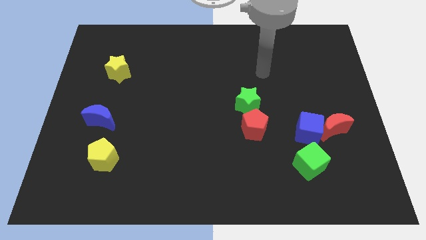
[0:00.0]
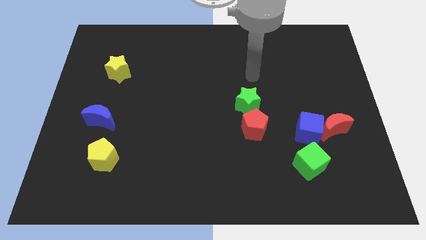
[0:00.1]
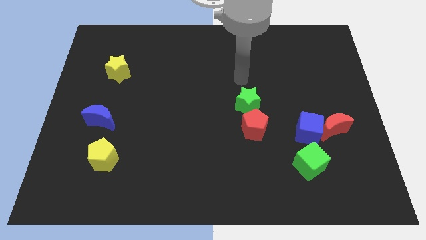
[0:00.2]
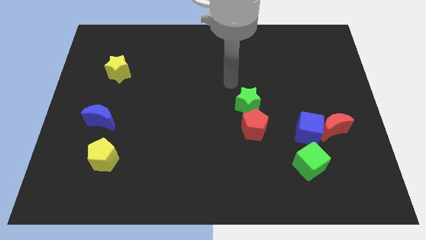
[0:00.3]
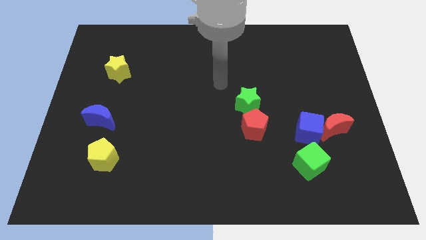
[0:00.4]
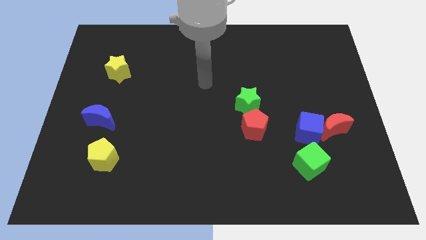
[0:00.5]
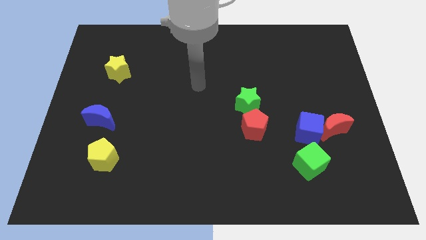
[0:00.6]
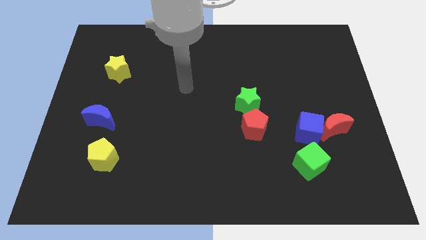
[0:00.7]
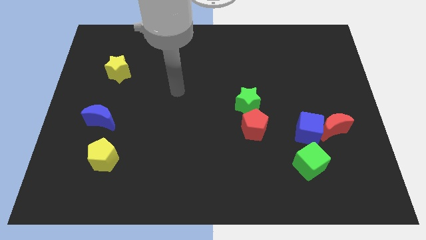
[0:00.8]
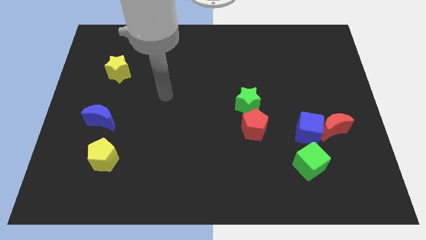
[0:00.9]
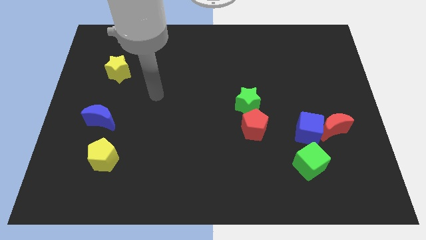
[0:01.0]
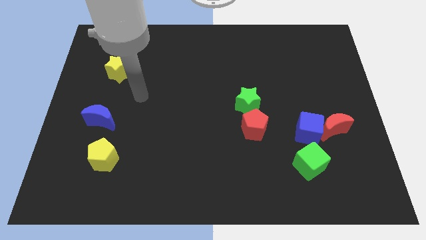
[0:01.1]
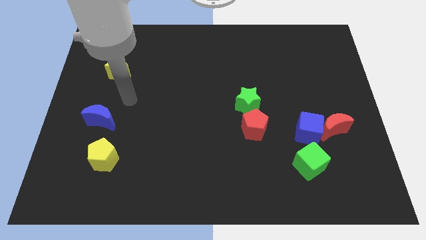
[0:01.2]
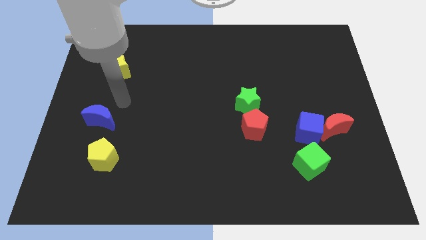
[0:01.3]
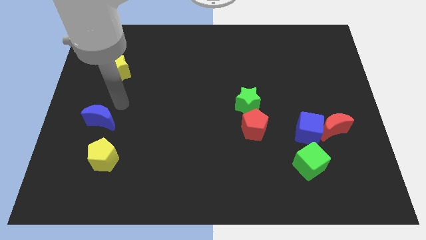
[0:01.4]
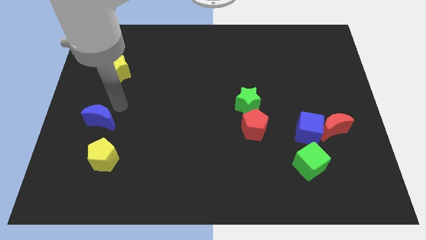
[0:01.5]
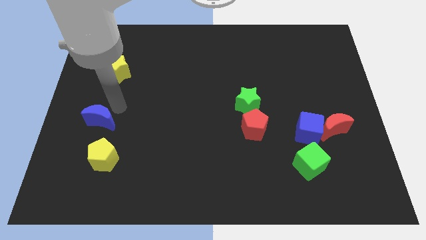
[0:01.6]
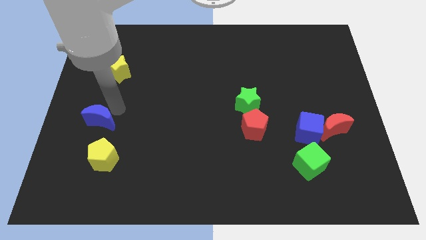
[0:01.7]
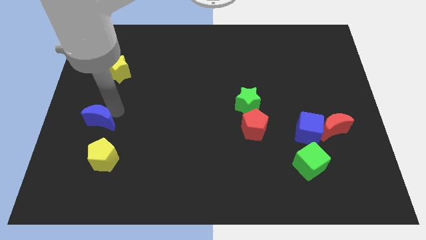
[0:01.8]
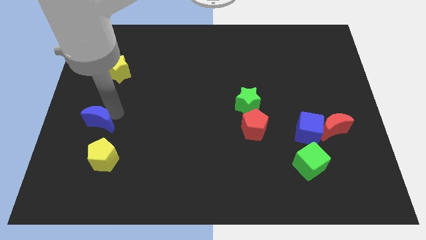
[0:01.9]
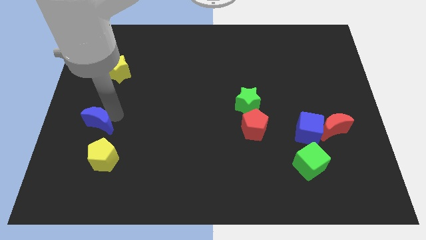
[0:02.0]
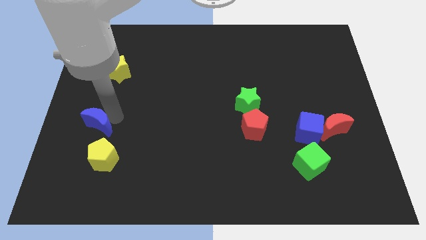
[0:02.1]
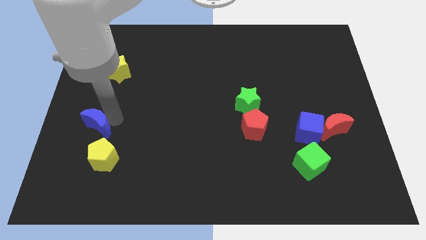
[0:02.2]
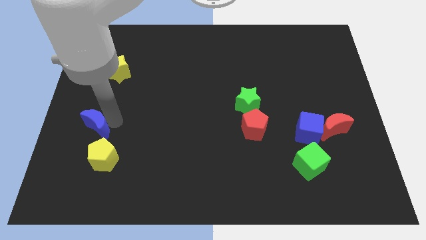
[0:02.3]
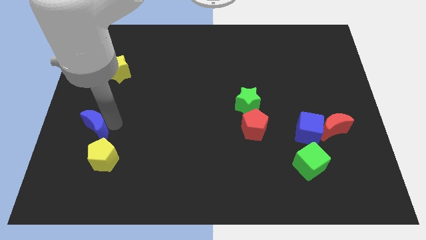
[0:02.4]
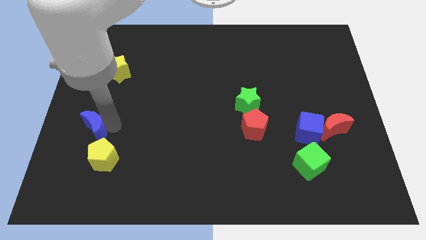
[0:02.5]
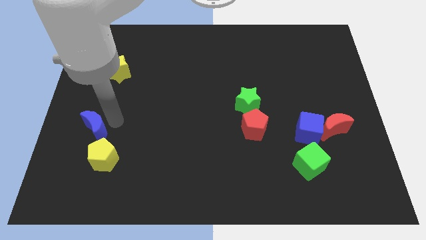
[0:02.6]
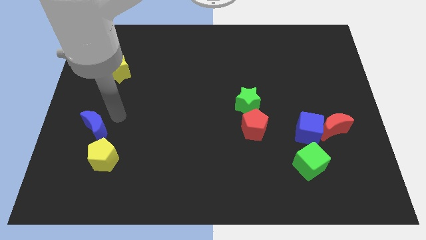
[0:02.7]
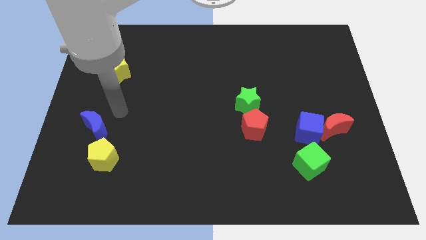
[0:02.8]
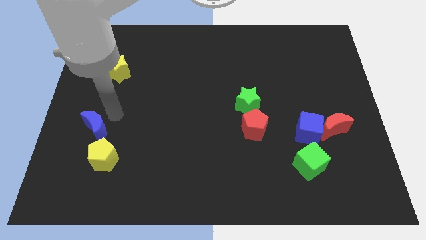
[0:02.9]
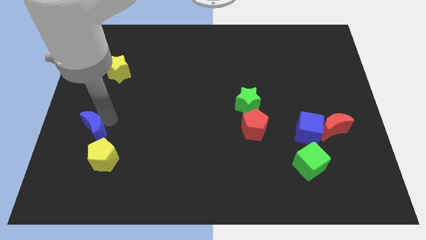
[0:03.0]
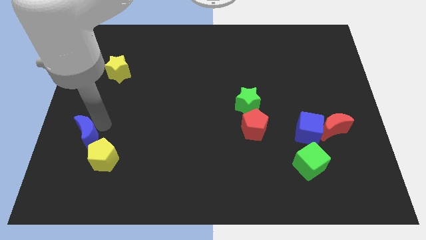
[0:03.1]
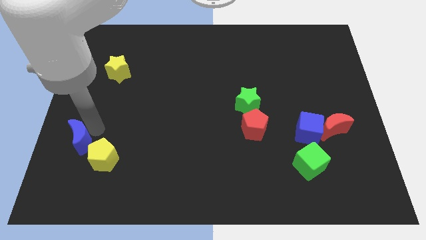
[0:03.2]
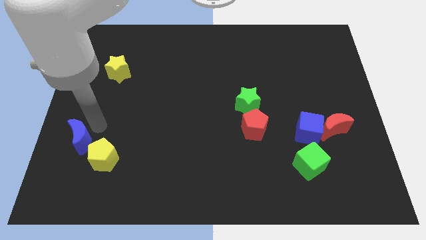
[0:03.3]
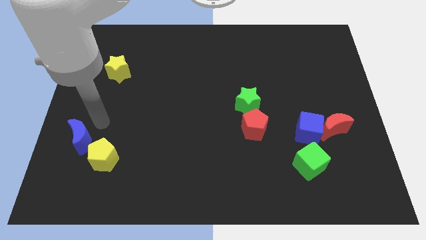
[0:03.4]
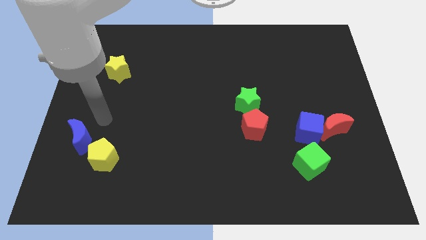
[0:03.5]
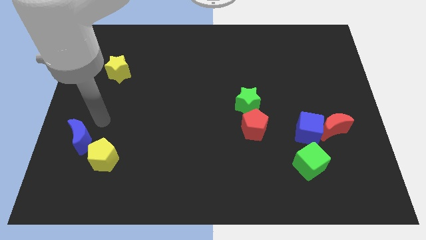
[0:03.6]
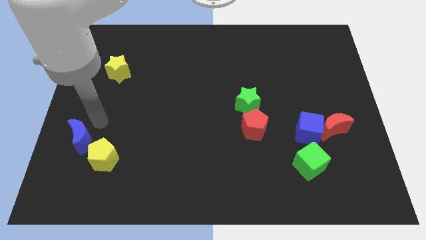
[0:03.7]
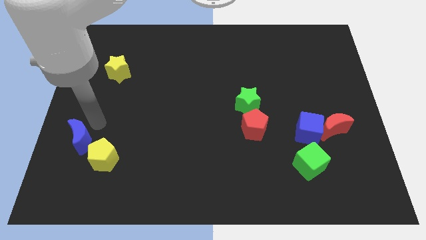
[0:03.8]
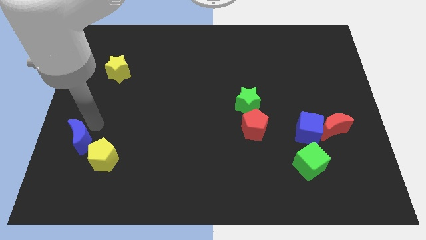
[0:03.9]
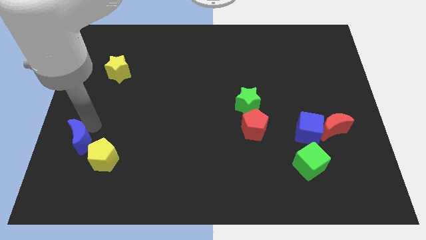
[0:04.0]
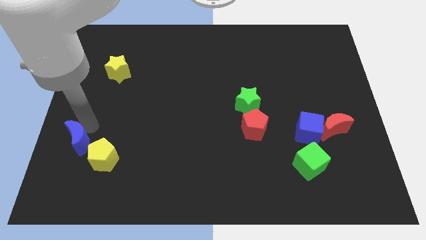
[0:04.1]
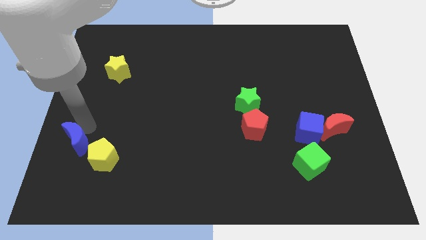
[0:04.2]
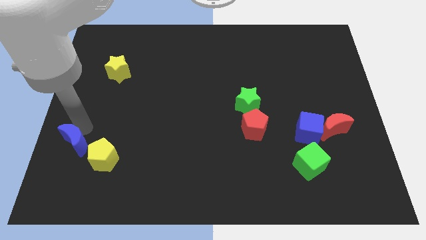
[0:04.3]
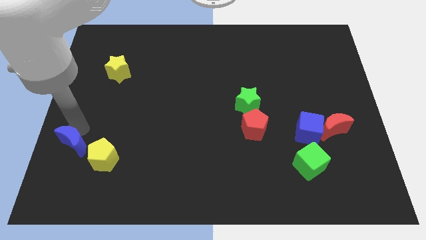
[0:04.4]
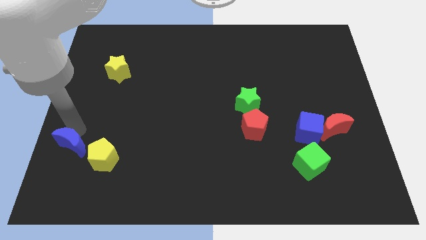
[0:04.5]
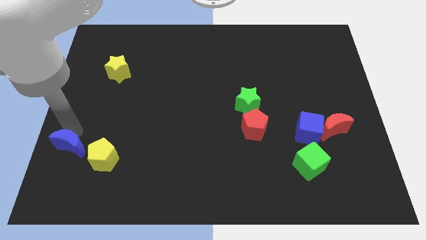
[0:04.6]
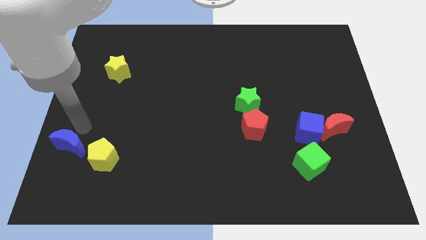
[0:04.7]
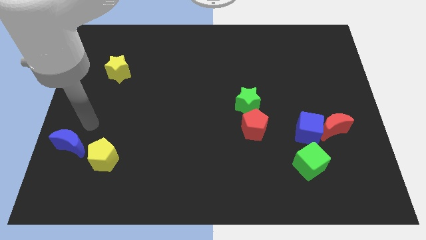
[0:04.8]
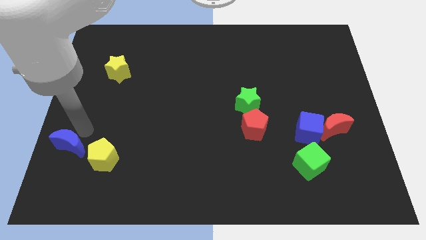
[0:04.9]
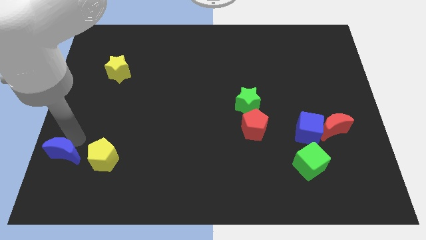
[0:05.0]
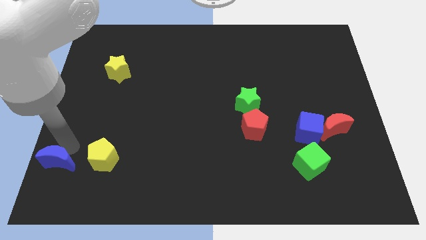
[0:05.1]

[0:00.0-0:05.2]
slide the blue moon to the bottom left corner

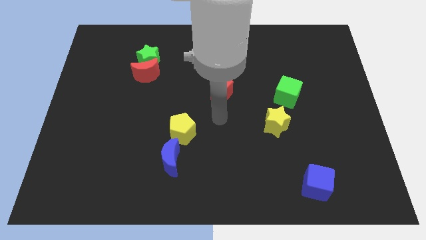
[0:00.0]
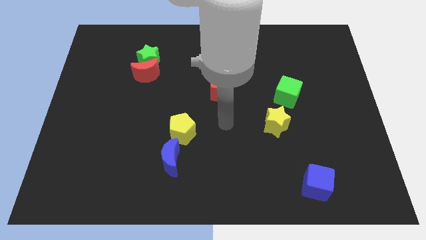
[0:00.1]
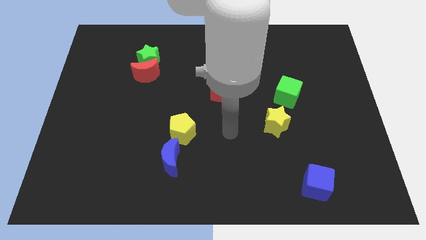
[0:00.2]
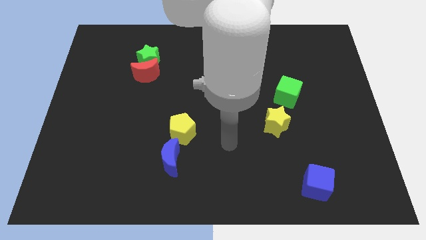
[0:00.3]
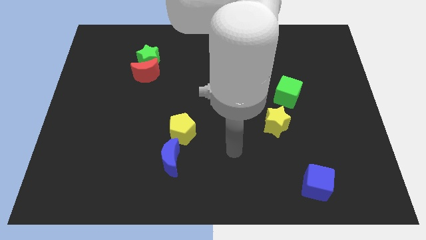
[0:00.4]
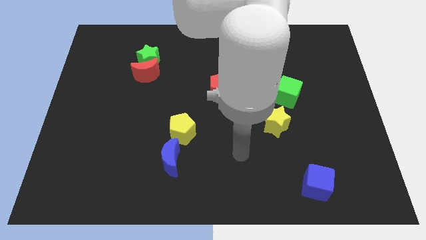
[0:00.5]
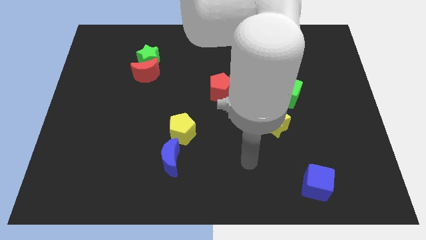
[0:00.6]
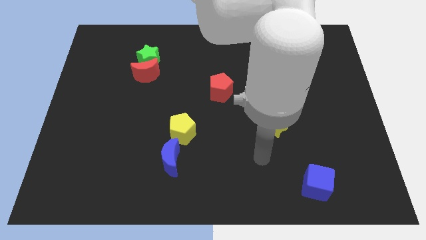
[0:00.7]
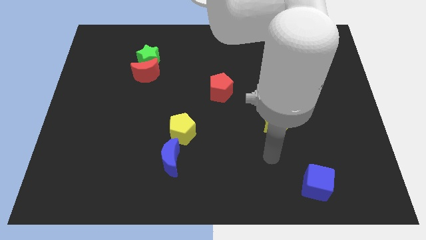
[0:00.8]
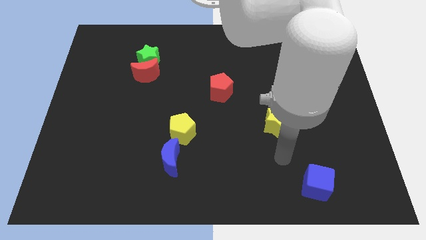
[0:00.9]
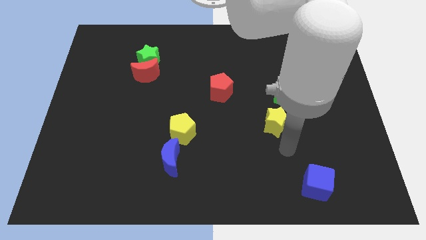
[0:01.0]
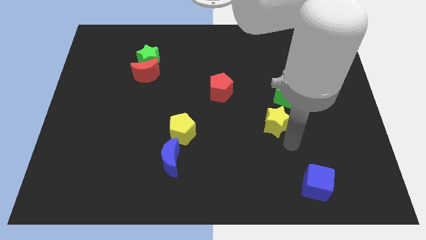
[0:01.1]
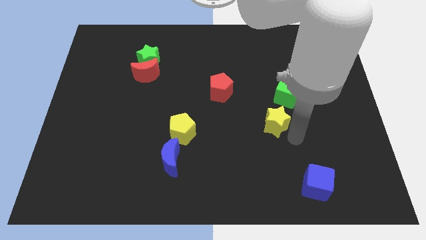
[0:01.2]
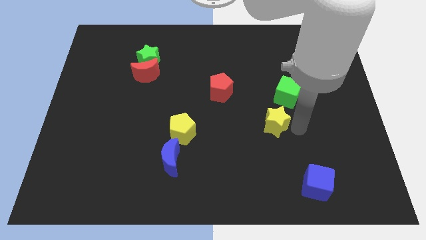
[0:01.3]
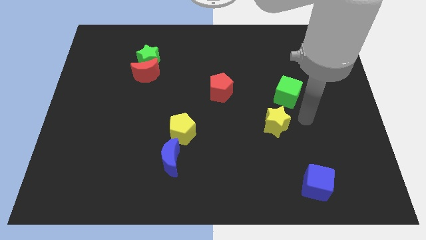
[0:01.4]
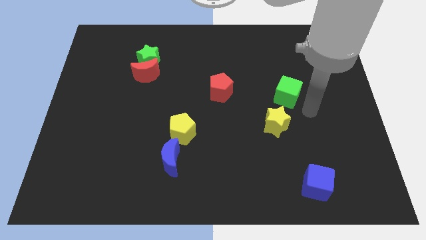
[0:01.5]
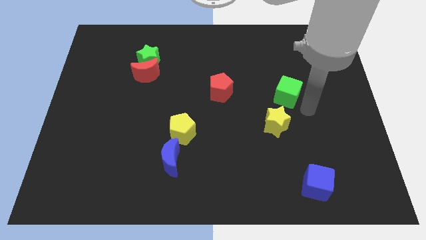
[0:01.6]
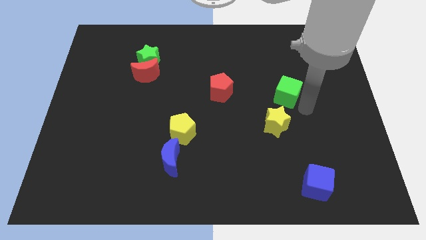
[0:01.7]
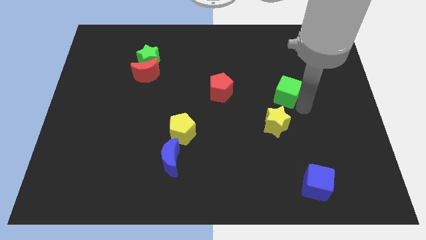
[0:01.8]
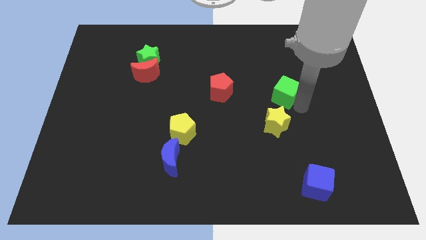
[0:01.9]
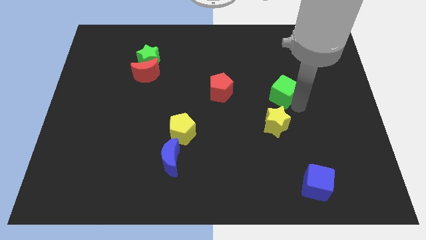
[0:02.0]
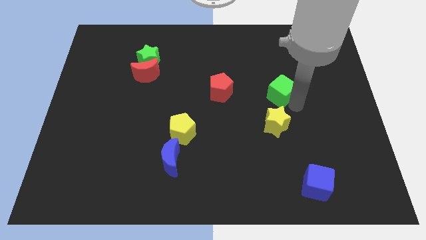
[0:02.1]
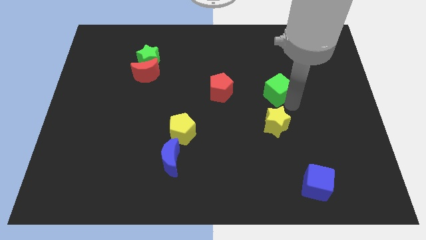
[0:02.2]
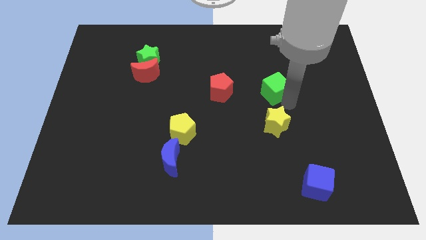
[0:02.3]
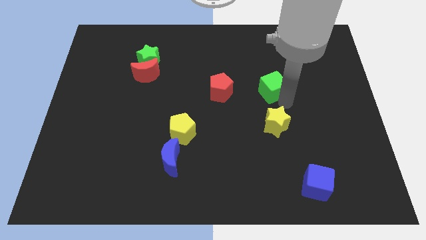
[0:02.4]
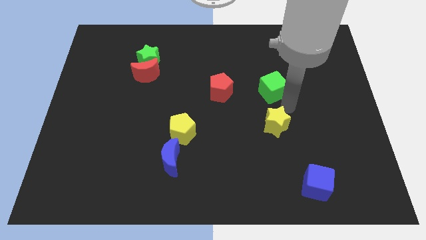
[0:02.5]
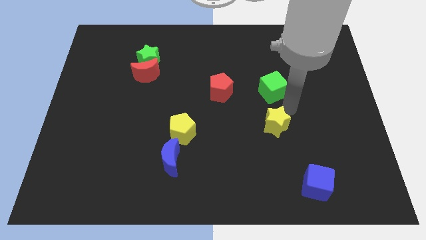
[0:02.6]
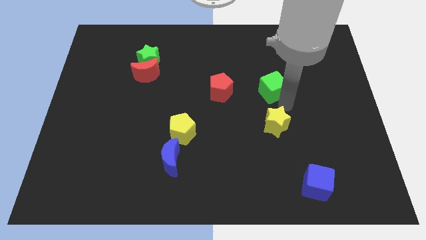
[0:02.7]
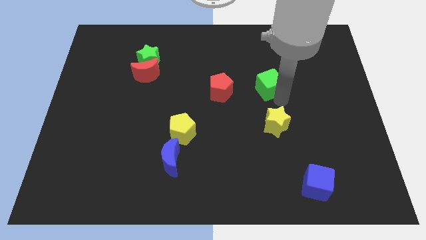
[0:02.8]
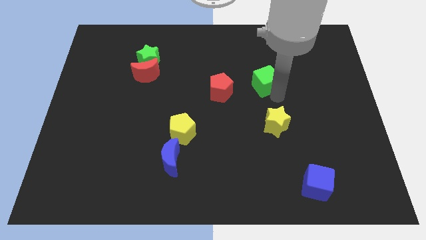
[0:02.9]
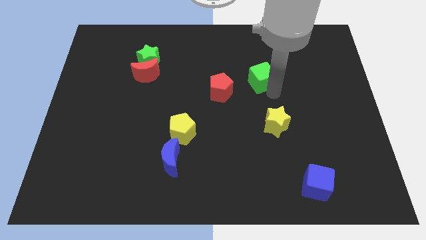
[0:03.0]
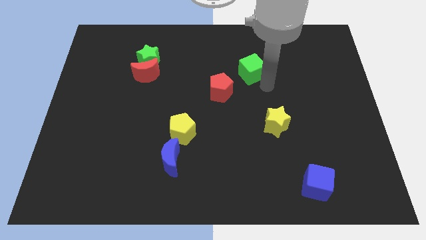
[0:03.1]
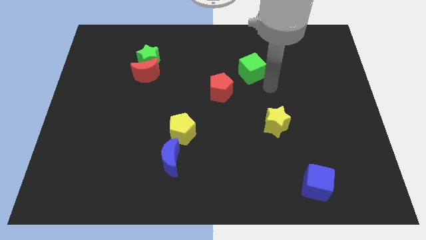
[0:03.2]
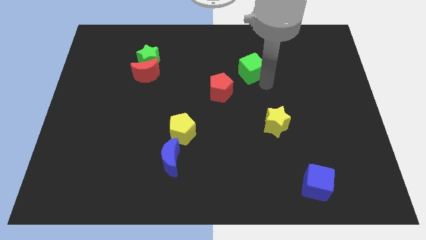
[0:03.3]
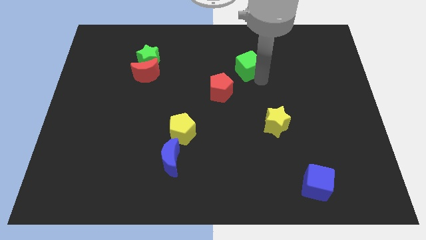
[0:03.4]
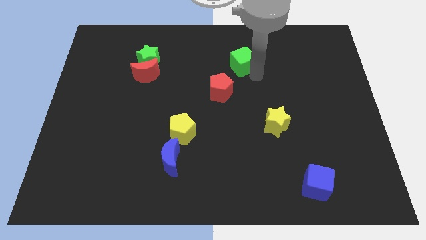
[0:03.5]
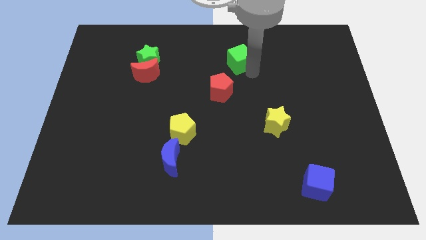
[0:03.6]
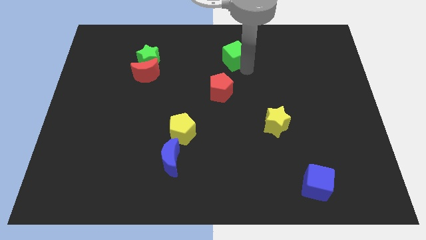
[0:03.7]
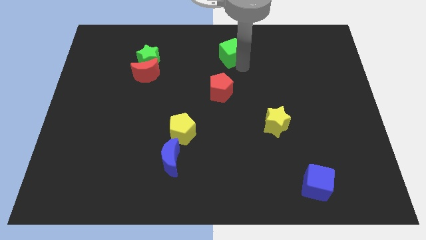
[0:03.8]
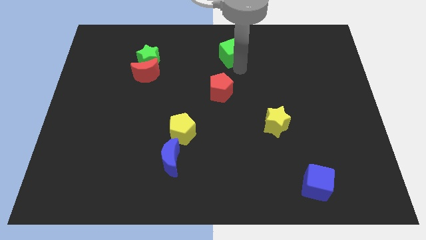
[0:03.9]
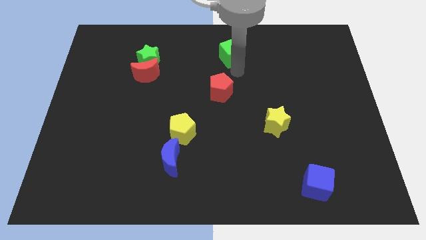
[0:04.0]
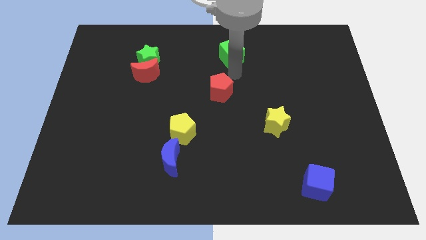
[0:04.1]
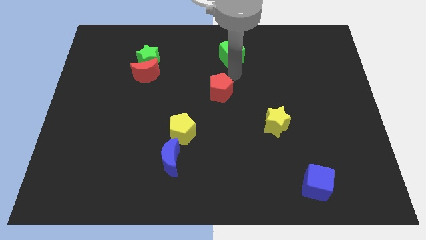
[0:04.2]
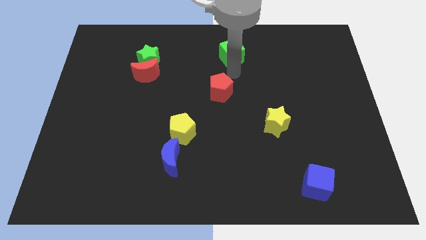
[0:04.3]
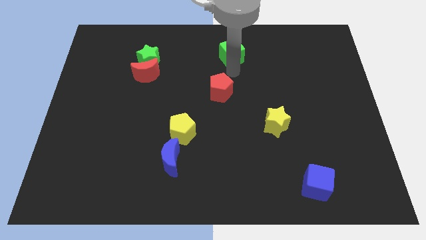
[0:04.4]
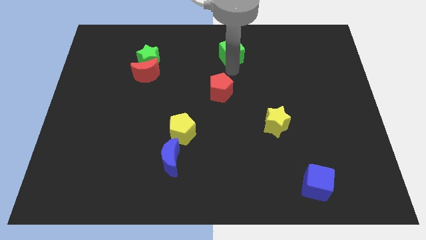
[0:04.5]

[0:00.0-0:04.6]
move the green cube to the towards your base
